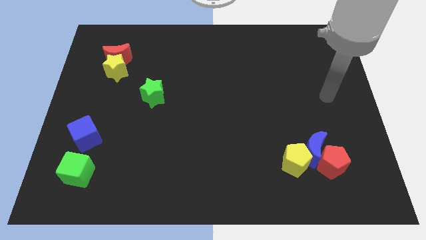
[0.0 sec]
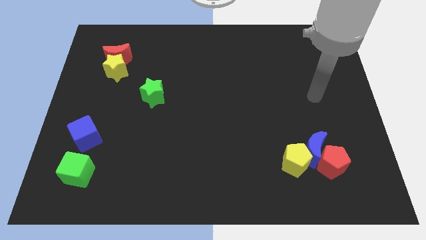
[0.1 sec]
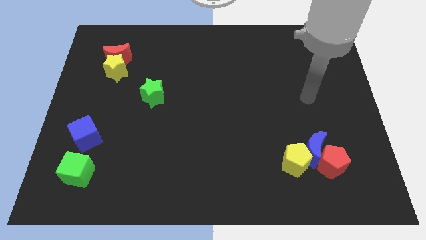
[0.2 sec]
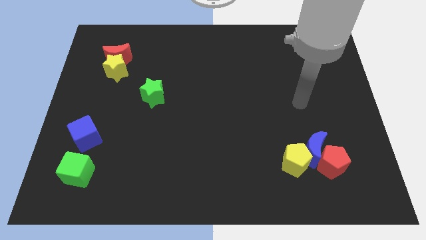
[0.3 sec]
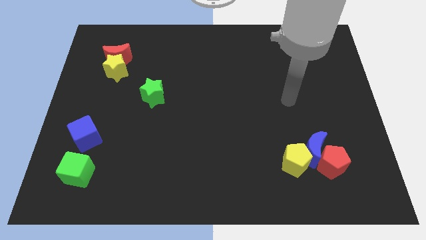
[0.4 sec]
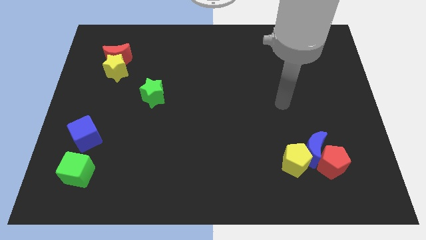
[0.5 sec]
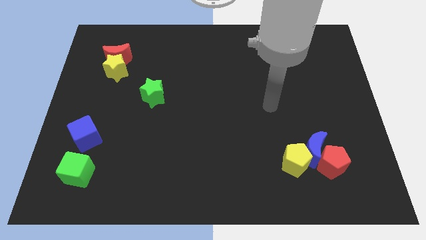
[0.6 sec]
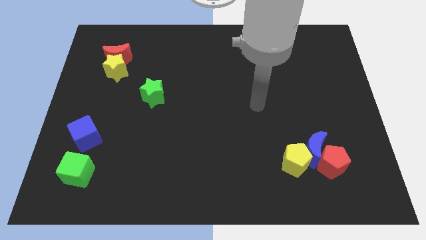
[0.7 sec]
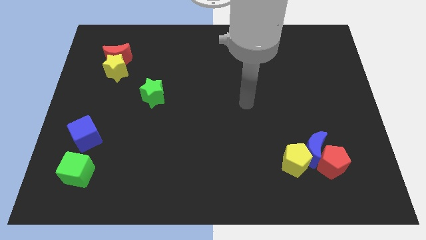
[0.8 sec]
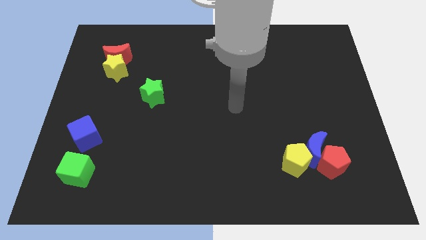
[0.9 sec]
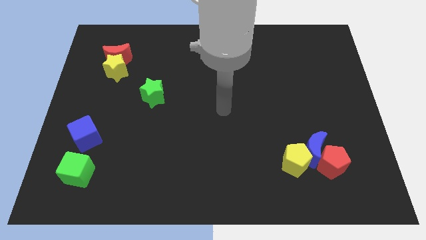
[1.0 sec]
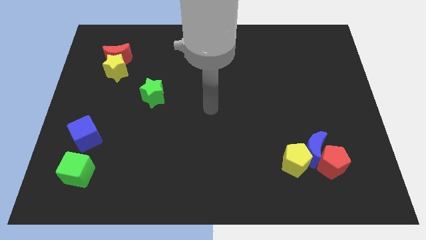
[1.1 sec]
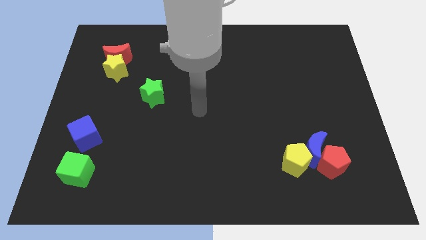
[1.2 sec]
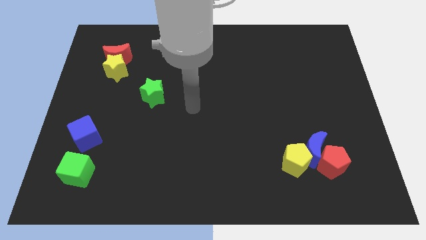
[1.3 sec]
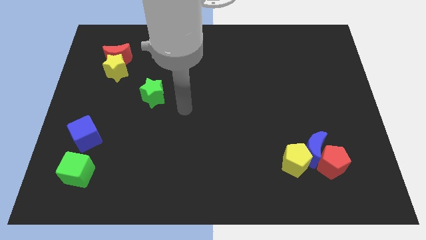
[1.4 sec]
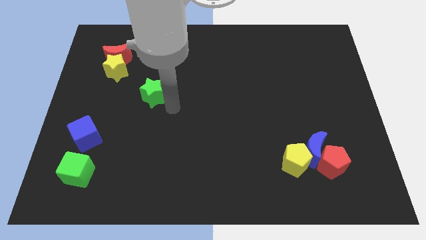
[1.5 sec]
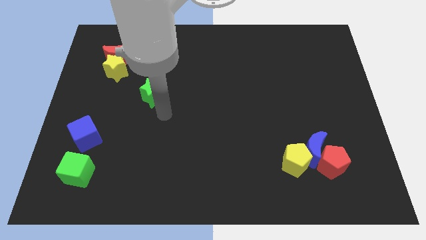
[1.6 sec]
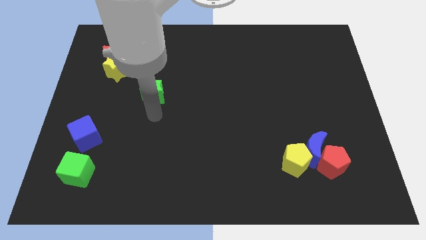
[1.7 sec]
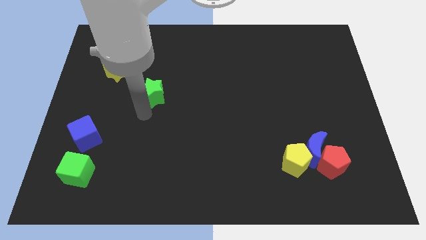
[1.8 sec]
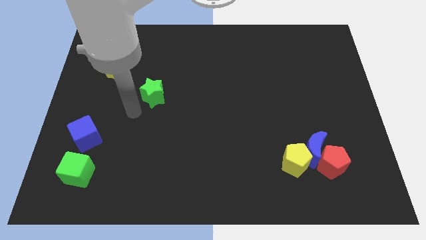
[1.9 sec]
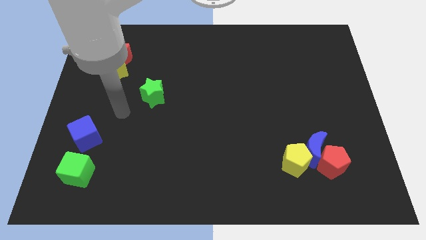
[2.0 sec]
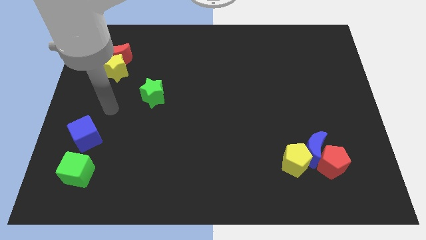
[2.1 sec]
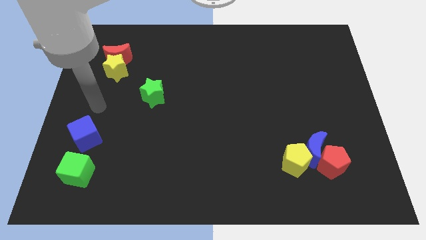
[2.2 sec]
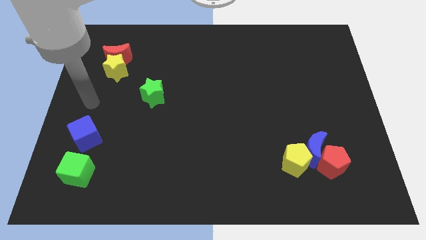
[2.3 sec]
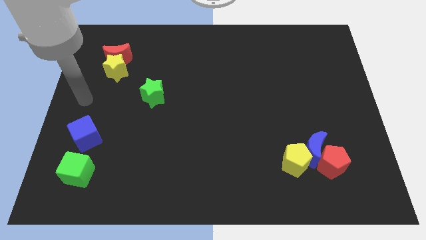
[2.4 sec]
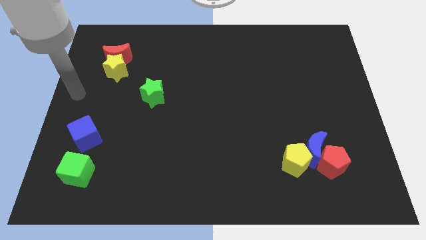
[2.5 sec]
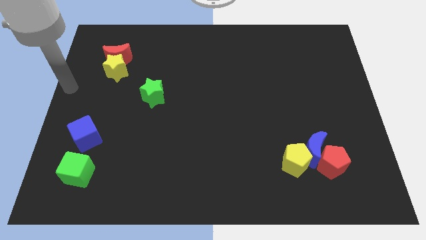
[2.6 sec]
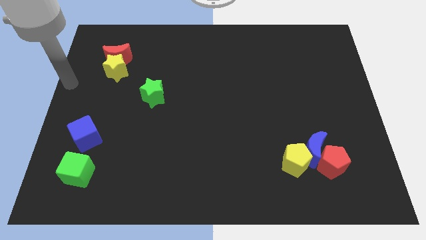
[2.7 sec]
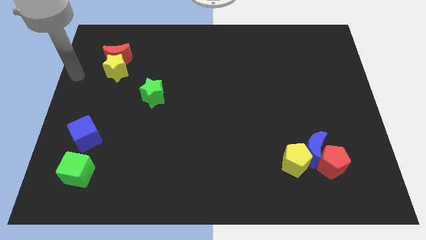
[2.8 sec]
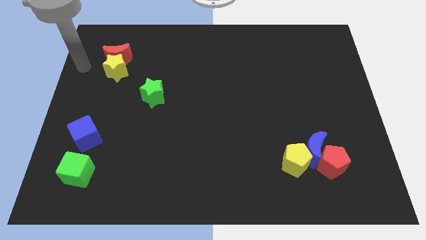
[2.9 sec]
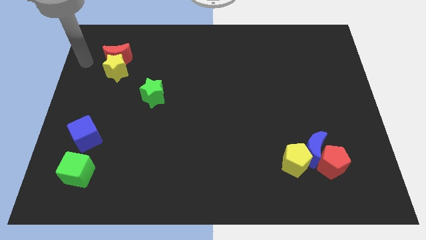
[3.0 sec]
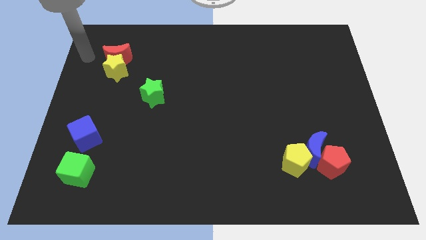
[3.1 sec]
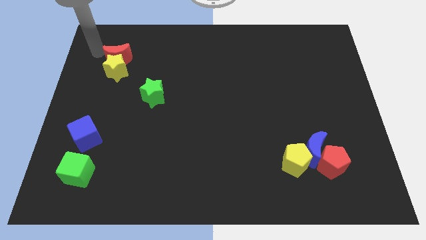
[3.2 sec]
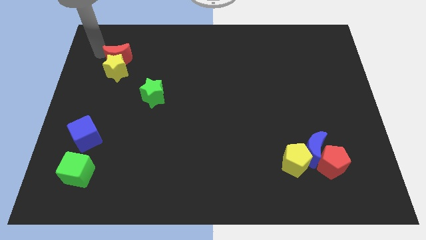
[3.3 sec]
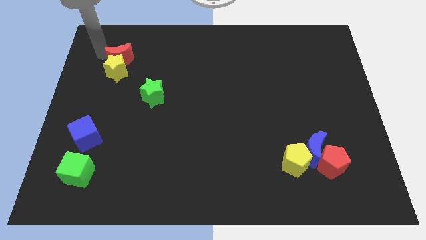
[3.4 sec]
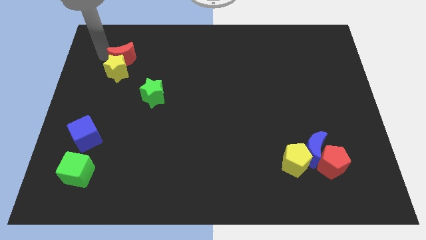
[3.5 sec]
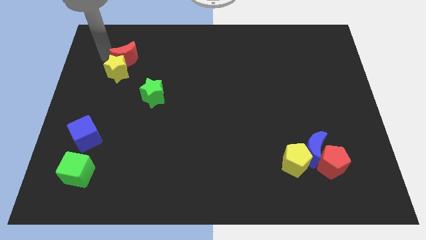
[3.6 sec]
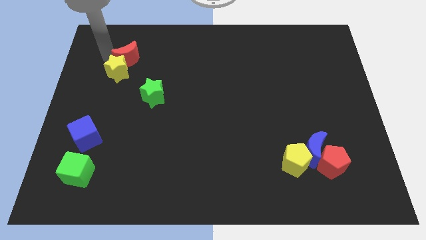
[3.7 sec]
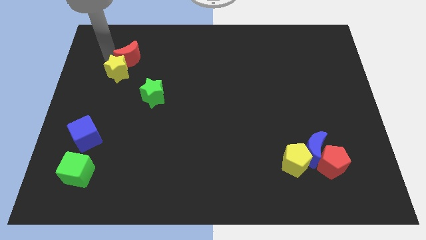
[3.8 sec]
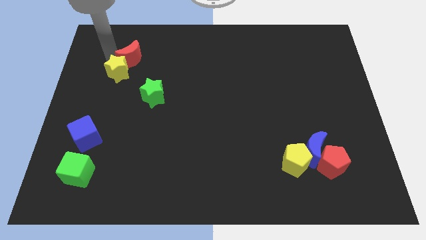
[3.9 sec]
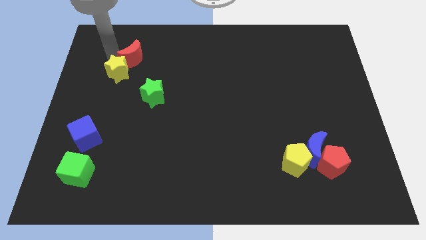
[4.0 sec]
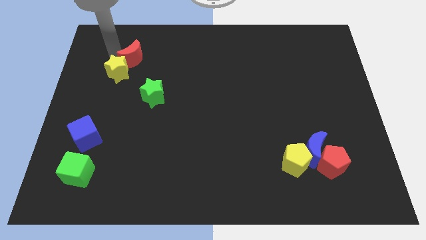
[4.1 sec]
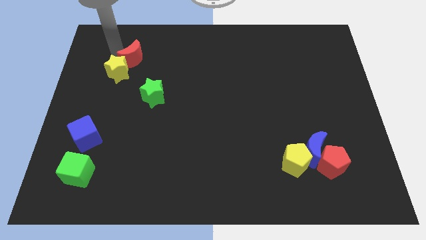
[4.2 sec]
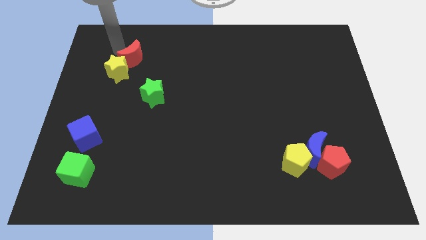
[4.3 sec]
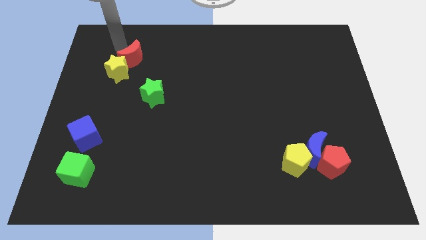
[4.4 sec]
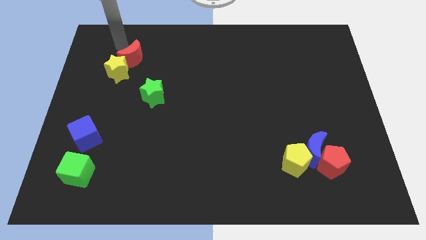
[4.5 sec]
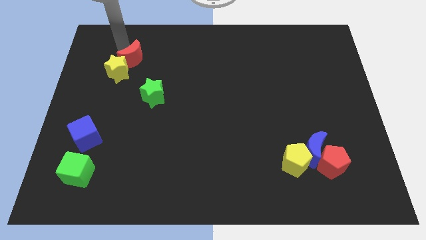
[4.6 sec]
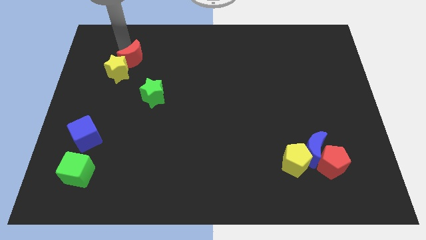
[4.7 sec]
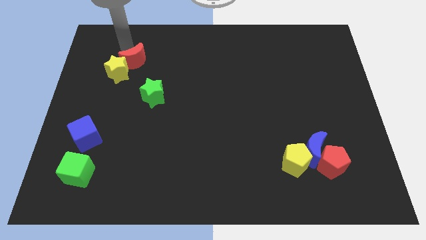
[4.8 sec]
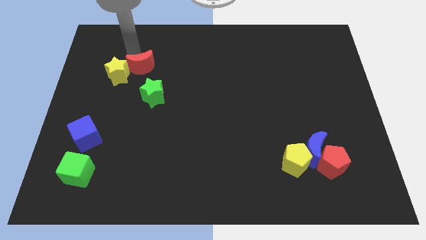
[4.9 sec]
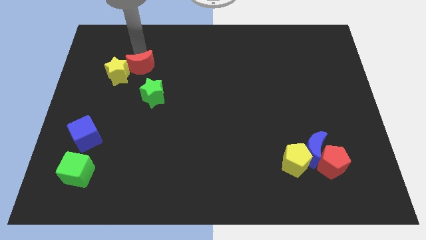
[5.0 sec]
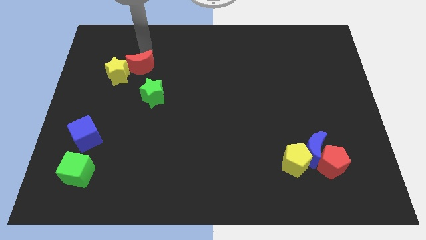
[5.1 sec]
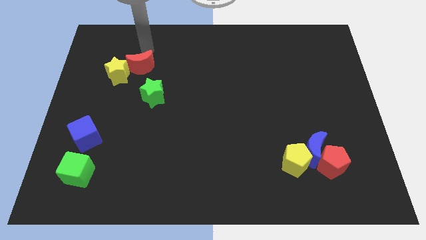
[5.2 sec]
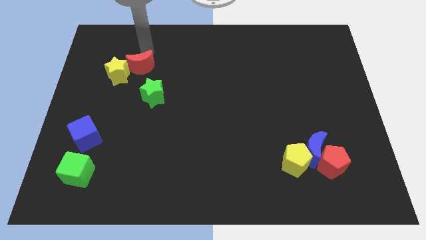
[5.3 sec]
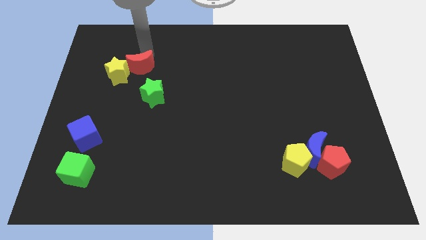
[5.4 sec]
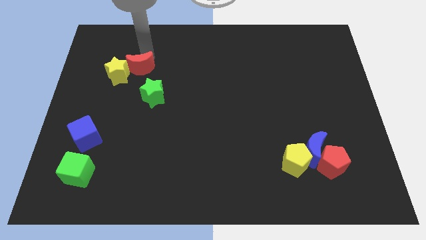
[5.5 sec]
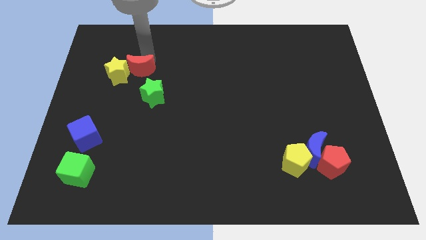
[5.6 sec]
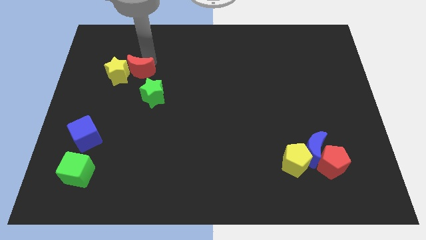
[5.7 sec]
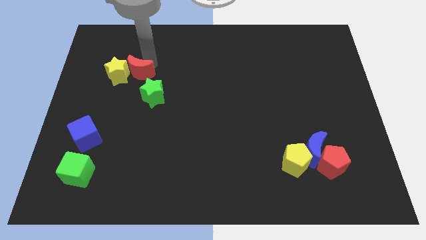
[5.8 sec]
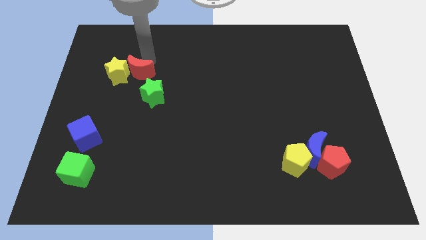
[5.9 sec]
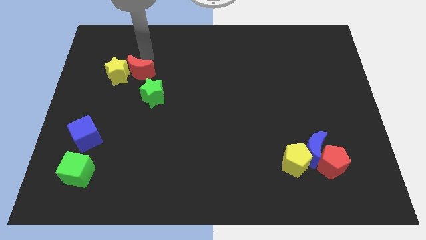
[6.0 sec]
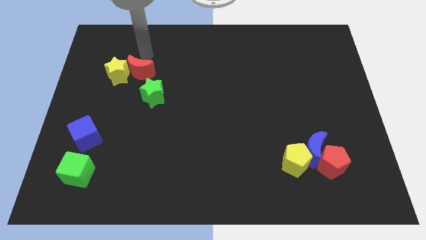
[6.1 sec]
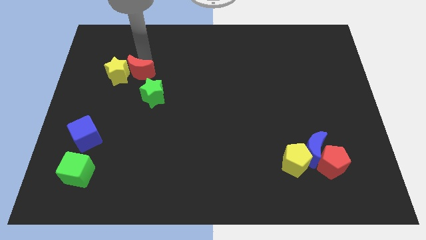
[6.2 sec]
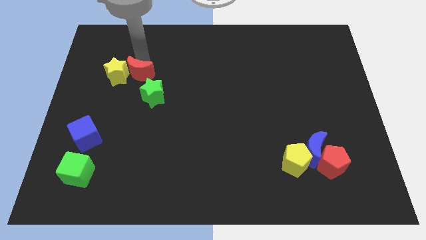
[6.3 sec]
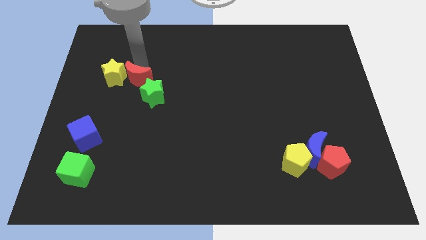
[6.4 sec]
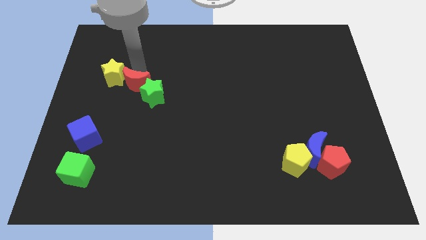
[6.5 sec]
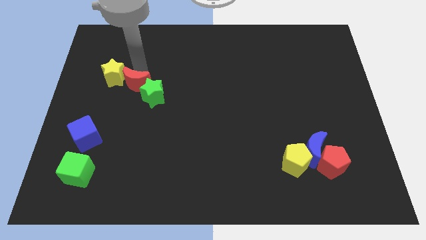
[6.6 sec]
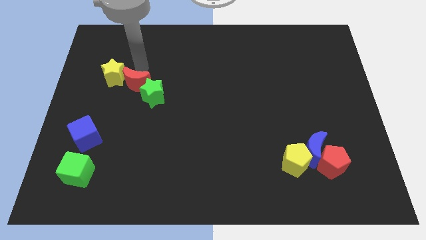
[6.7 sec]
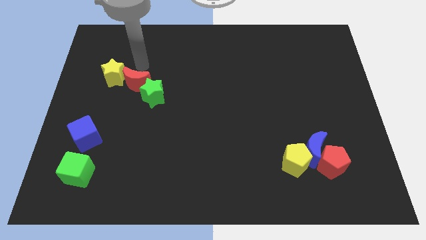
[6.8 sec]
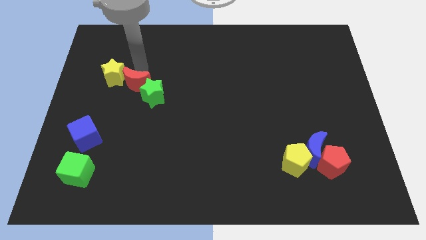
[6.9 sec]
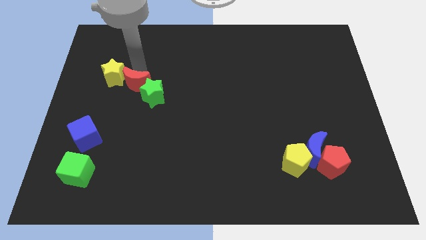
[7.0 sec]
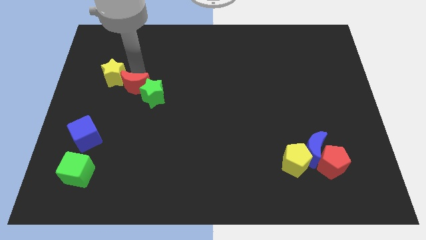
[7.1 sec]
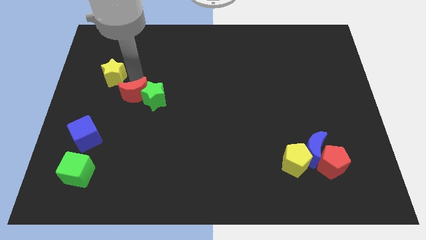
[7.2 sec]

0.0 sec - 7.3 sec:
move the red moon to the bottom left of the green star
